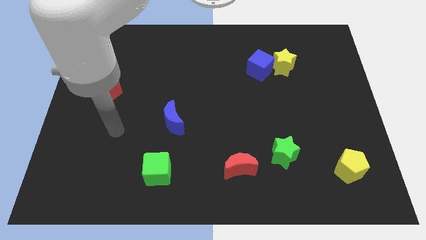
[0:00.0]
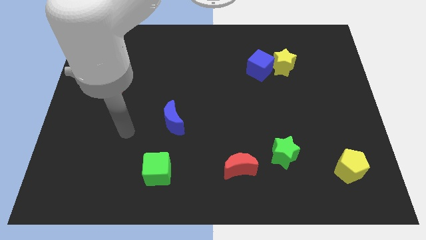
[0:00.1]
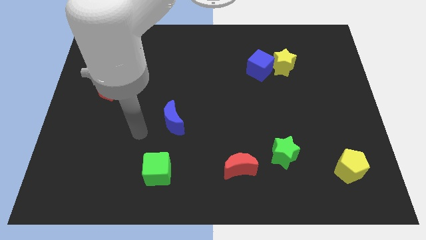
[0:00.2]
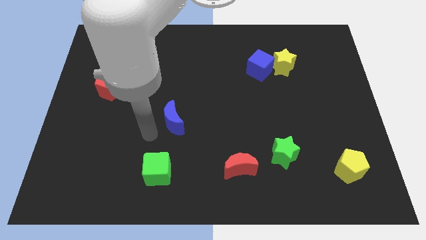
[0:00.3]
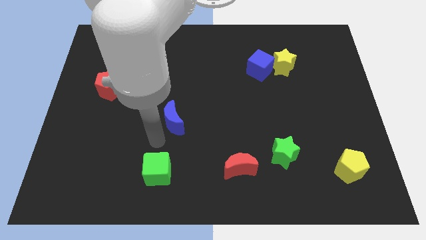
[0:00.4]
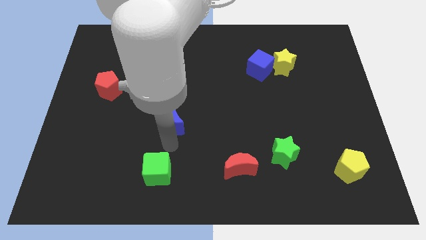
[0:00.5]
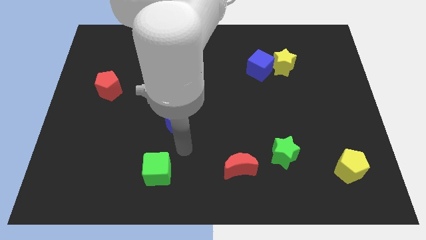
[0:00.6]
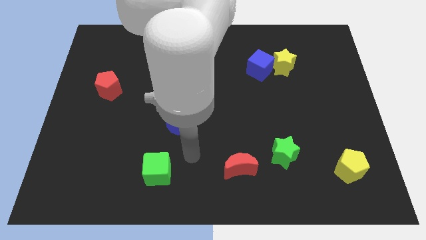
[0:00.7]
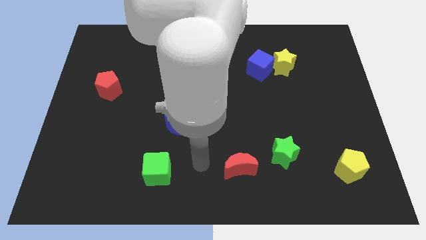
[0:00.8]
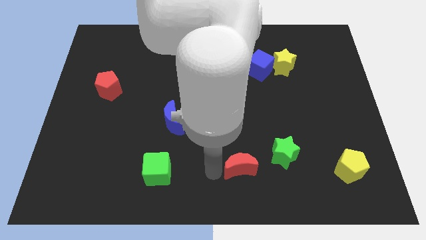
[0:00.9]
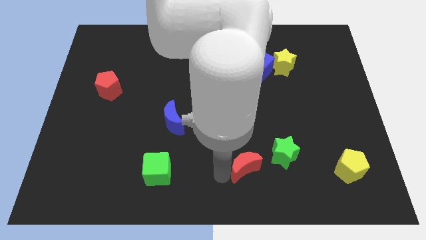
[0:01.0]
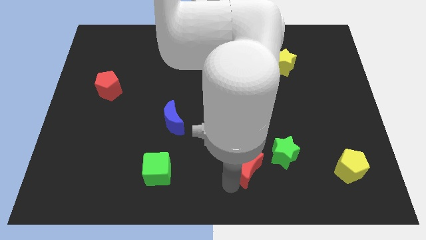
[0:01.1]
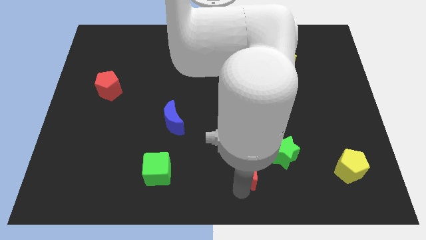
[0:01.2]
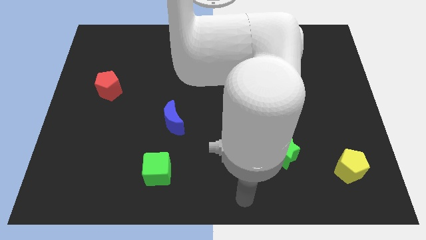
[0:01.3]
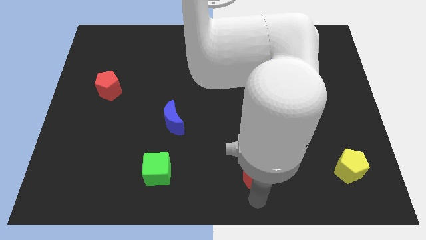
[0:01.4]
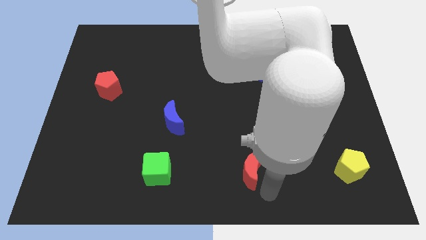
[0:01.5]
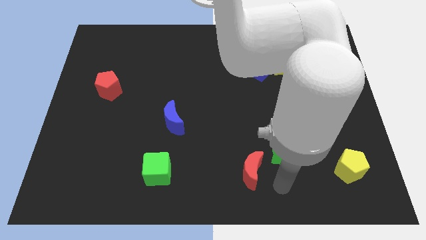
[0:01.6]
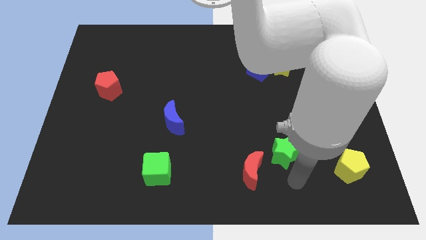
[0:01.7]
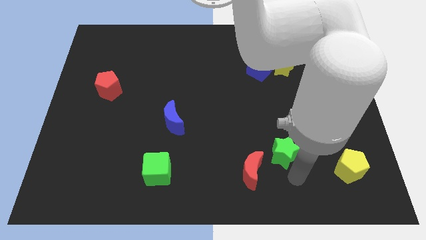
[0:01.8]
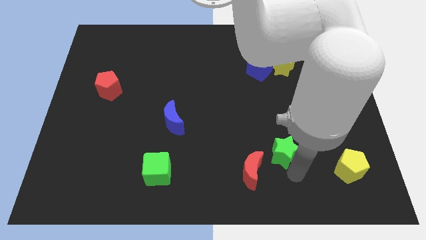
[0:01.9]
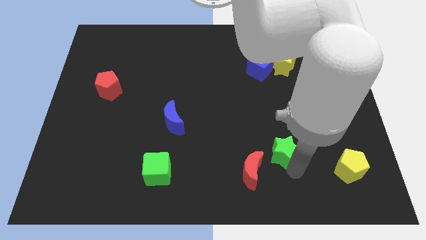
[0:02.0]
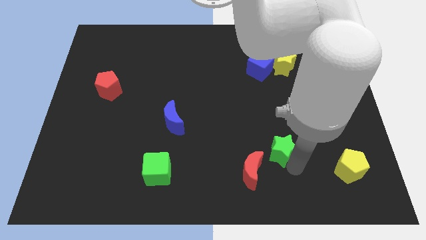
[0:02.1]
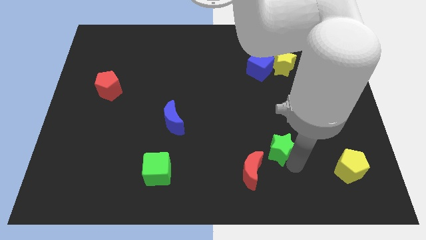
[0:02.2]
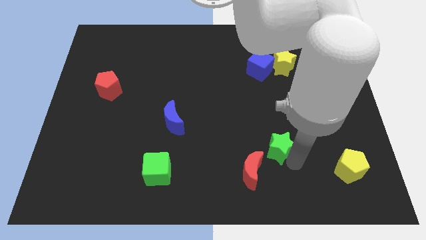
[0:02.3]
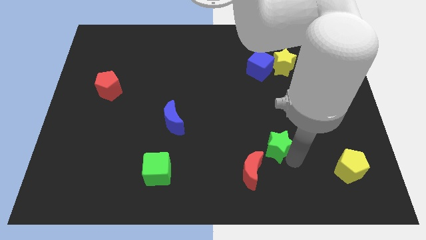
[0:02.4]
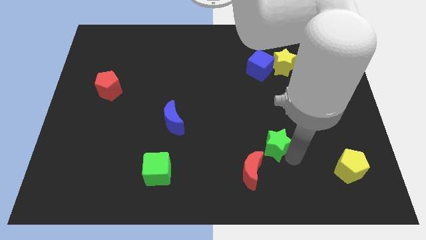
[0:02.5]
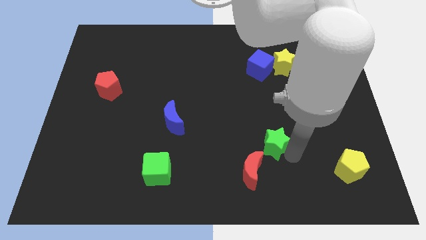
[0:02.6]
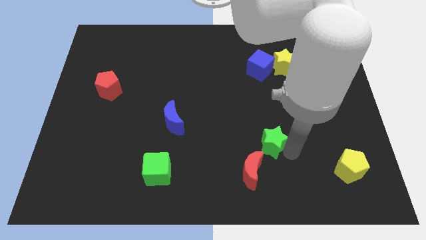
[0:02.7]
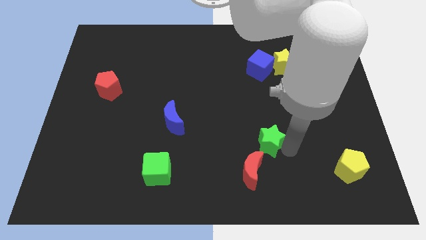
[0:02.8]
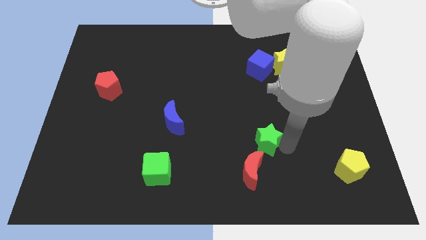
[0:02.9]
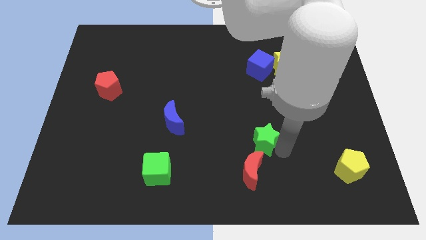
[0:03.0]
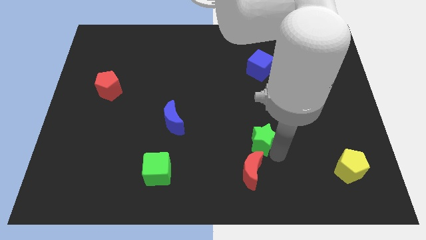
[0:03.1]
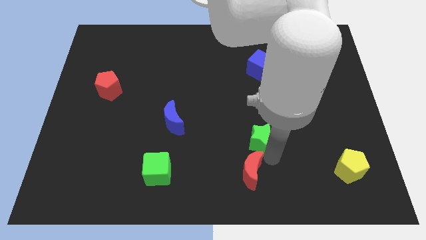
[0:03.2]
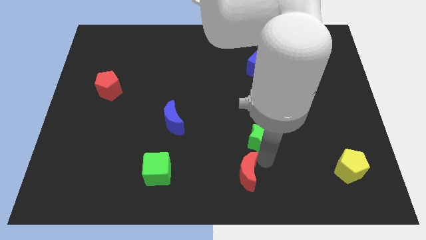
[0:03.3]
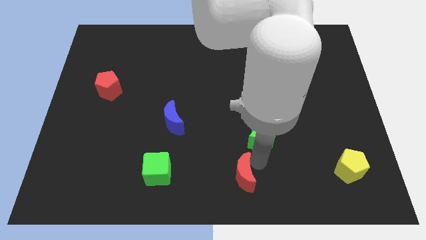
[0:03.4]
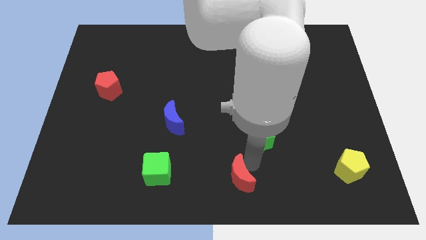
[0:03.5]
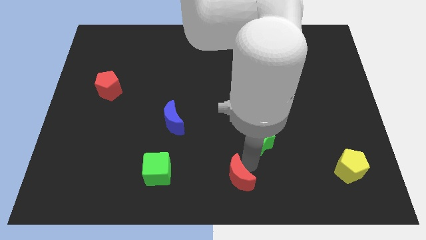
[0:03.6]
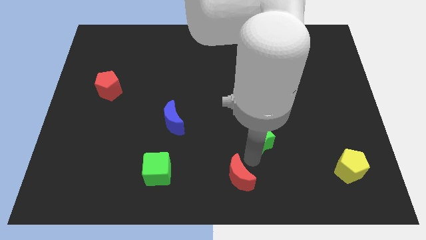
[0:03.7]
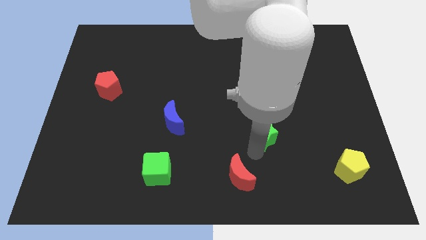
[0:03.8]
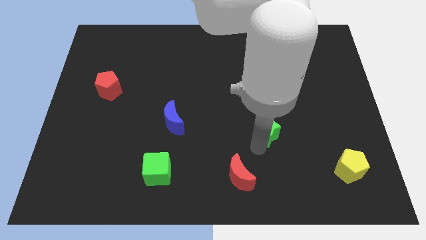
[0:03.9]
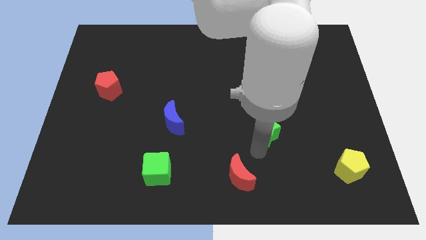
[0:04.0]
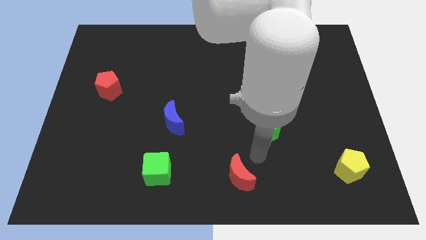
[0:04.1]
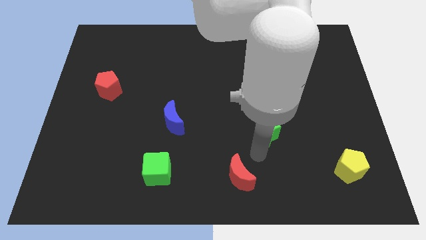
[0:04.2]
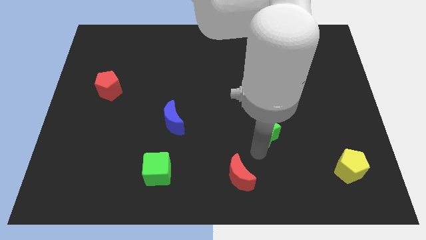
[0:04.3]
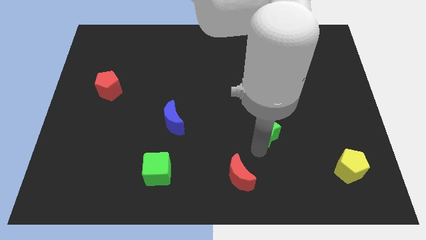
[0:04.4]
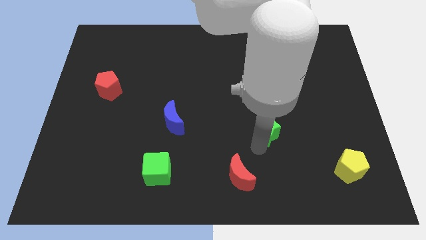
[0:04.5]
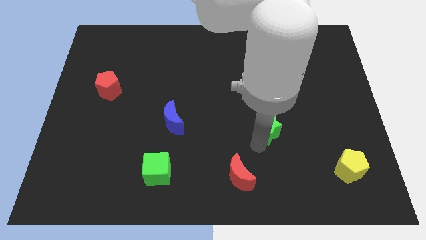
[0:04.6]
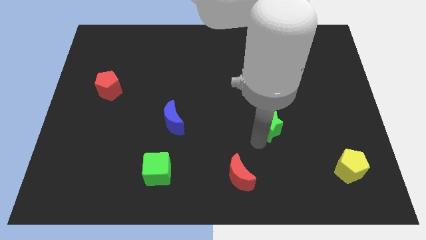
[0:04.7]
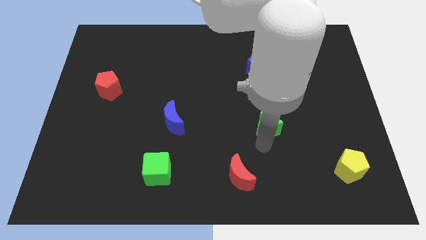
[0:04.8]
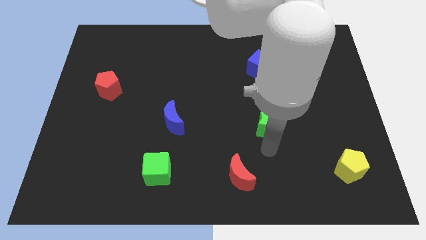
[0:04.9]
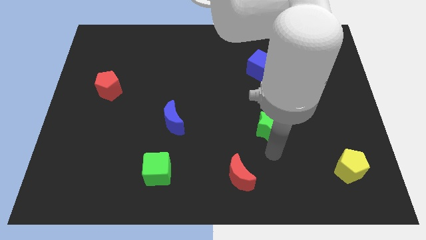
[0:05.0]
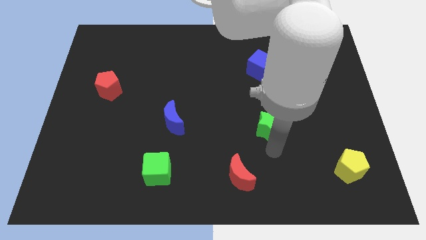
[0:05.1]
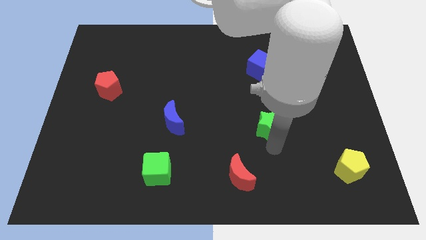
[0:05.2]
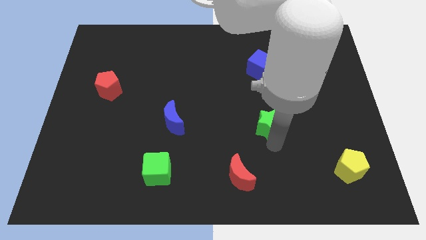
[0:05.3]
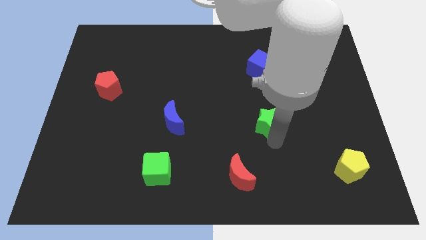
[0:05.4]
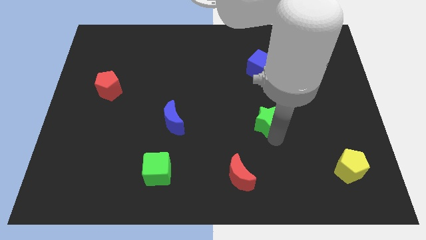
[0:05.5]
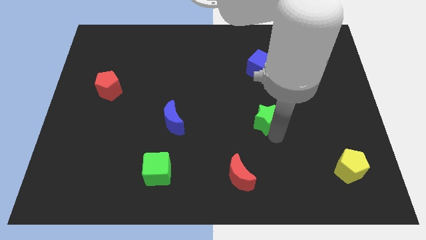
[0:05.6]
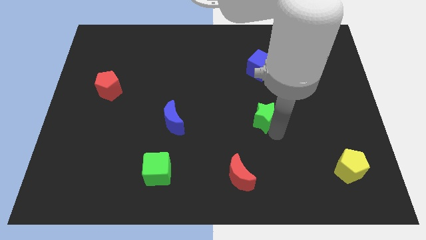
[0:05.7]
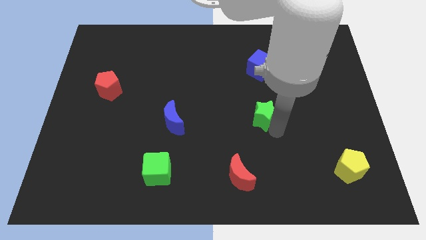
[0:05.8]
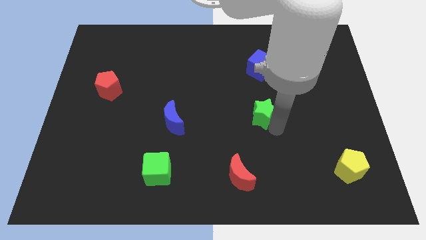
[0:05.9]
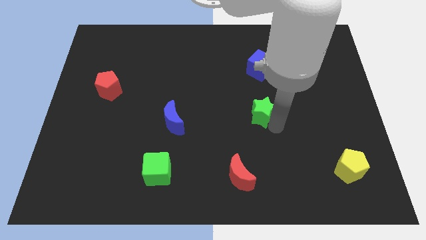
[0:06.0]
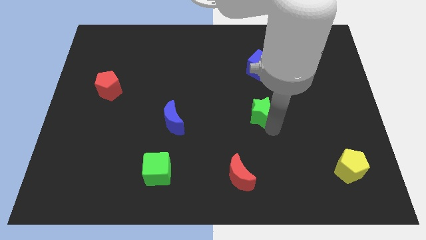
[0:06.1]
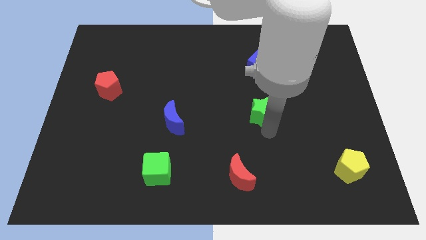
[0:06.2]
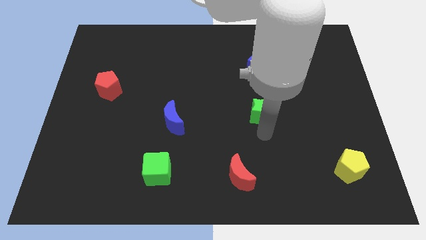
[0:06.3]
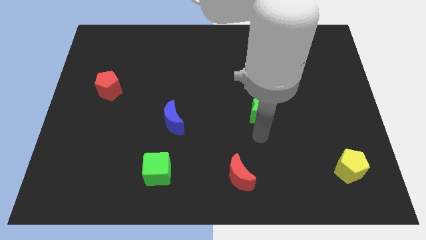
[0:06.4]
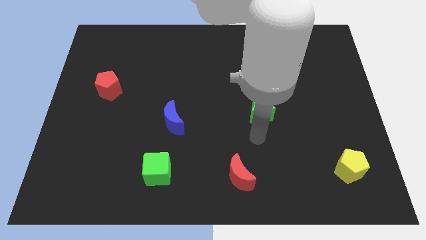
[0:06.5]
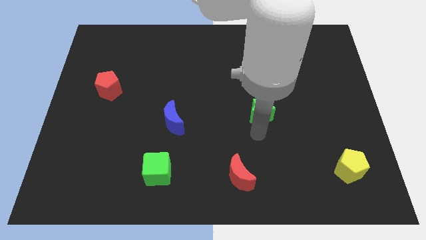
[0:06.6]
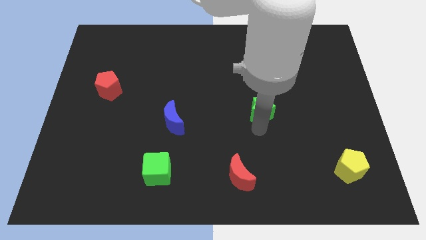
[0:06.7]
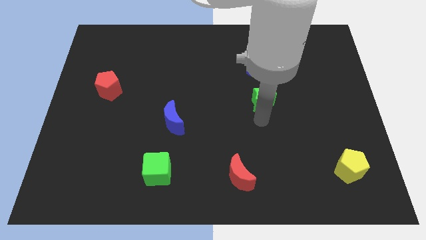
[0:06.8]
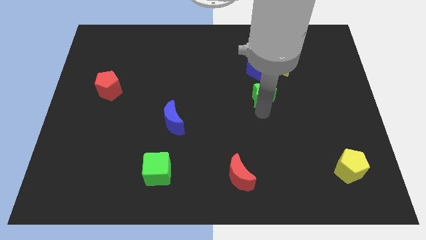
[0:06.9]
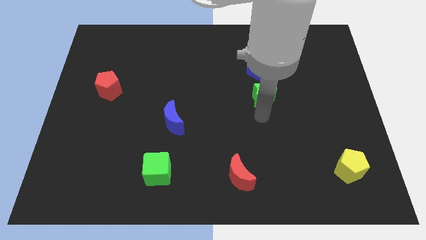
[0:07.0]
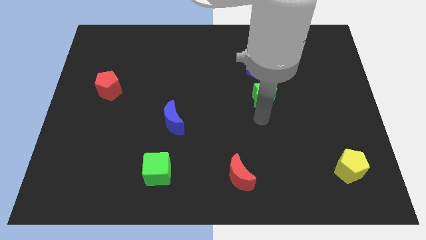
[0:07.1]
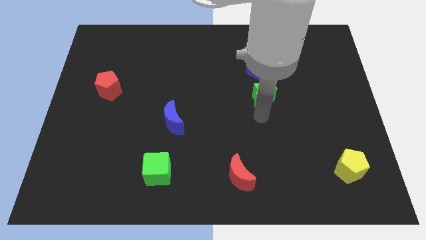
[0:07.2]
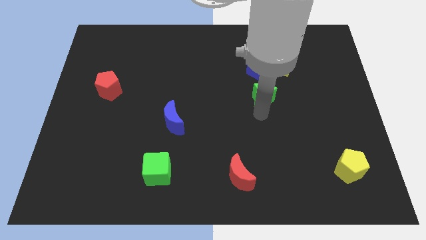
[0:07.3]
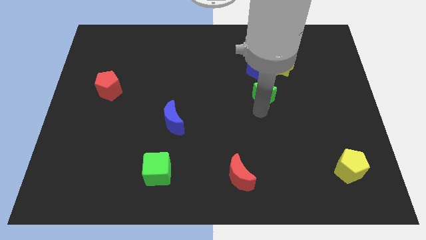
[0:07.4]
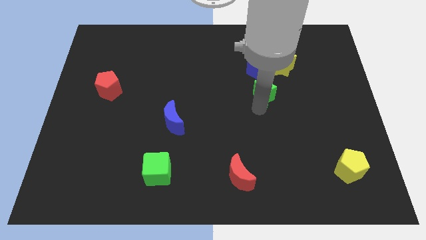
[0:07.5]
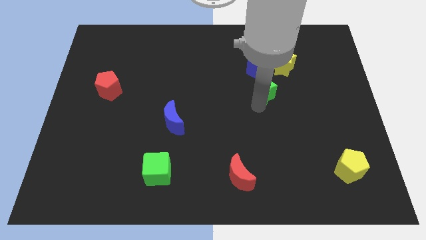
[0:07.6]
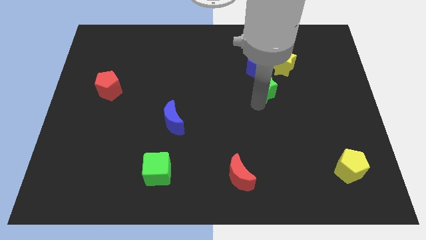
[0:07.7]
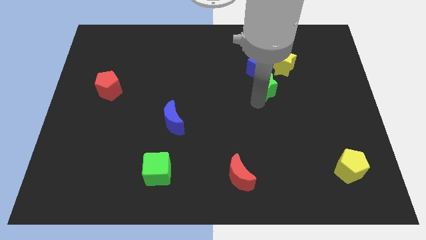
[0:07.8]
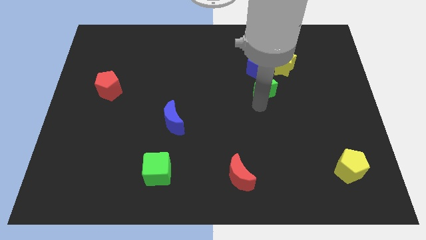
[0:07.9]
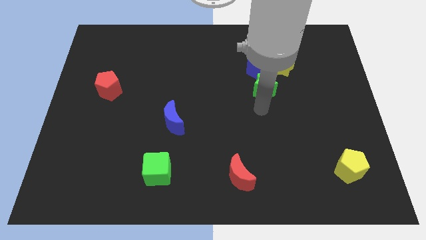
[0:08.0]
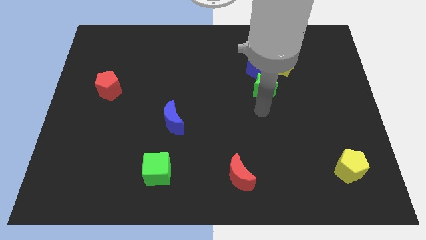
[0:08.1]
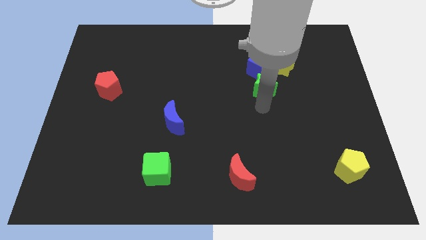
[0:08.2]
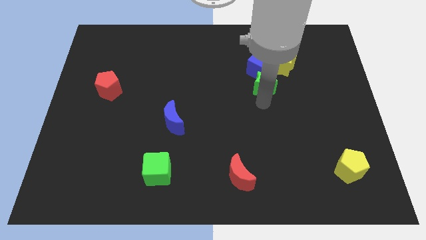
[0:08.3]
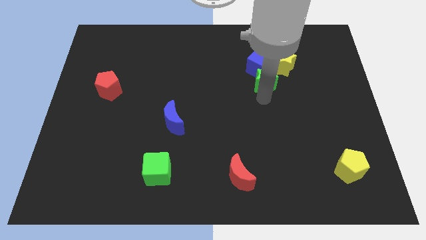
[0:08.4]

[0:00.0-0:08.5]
push the green star to the blue cube
